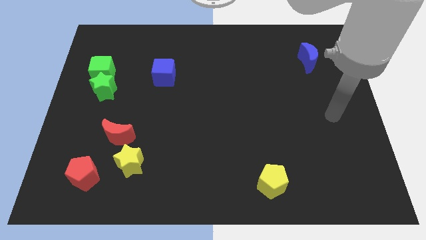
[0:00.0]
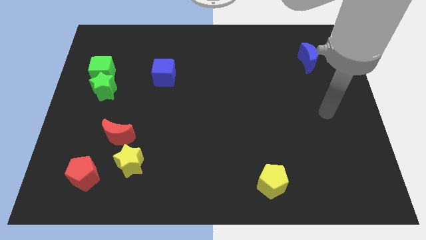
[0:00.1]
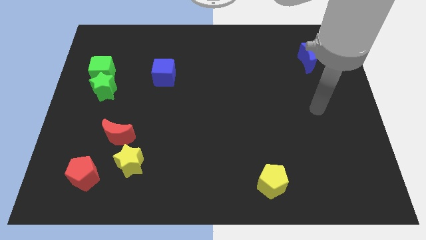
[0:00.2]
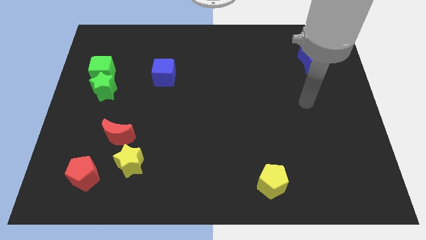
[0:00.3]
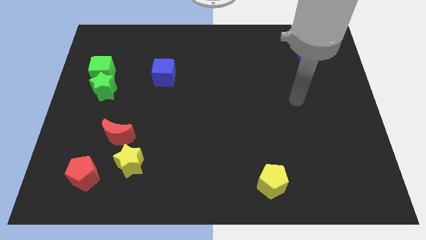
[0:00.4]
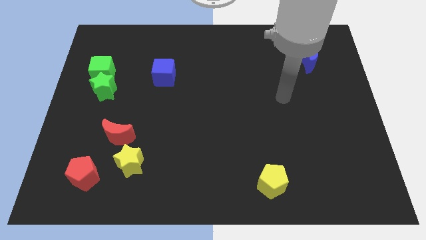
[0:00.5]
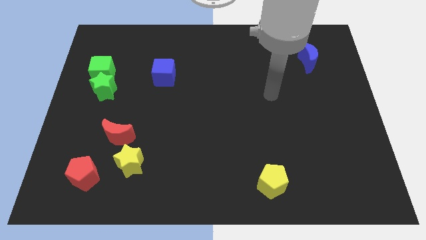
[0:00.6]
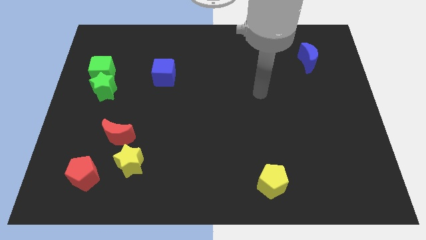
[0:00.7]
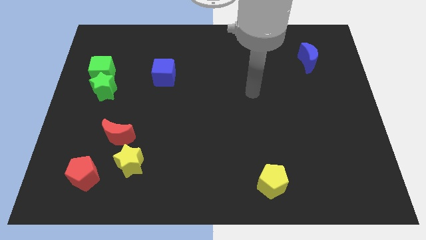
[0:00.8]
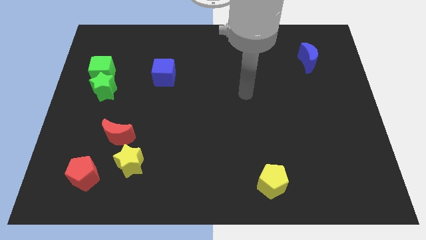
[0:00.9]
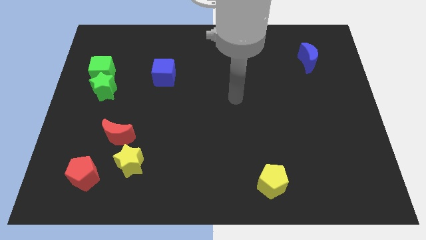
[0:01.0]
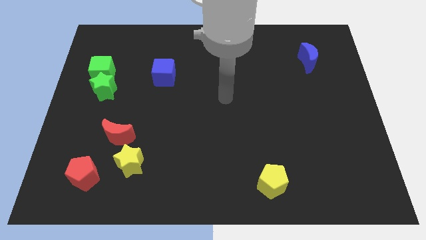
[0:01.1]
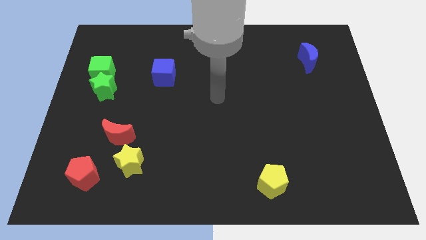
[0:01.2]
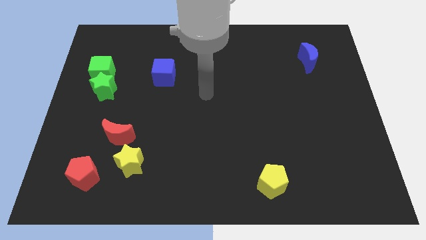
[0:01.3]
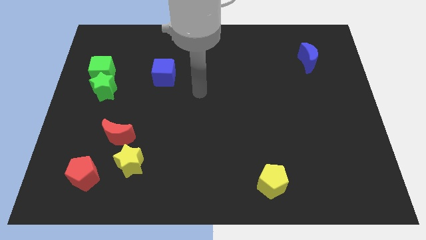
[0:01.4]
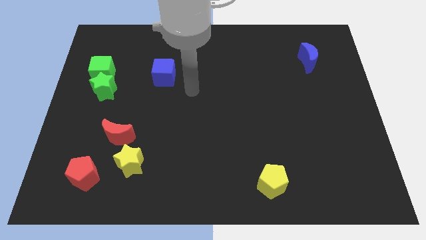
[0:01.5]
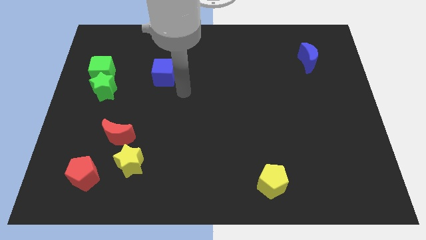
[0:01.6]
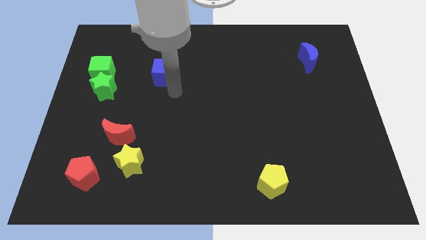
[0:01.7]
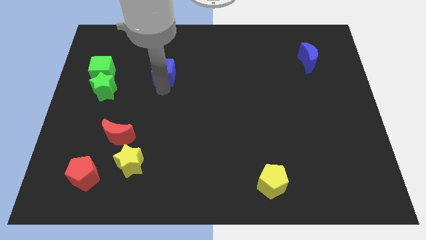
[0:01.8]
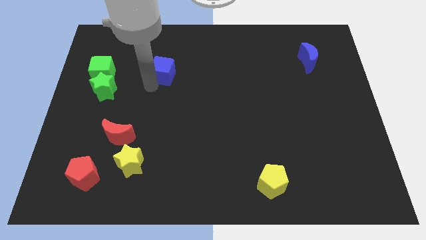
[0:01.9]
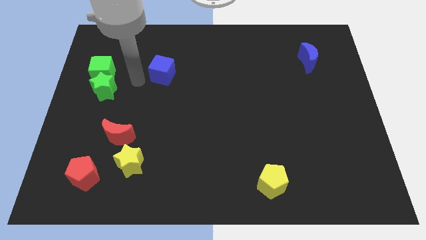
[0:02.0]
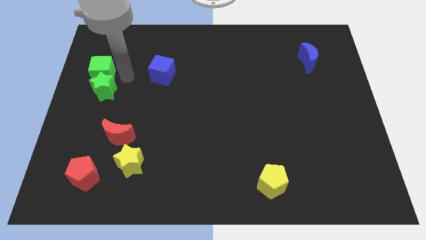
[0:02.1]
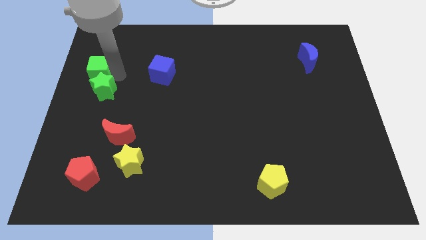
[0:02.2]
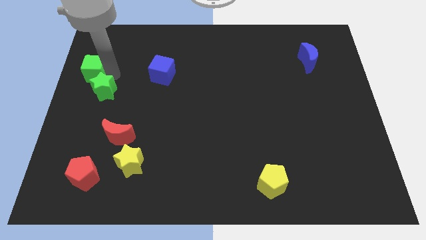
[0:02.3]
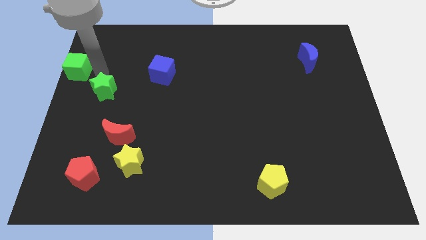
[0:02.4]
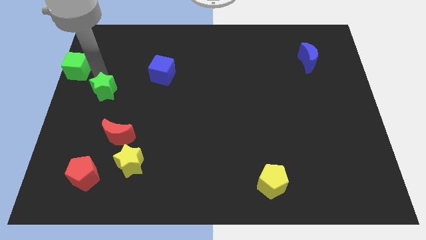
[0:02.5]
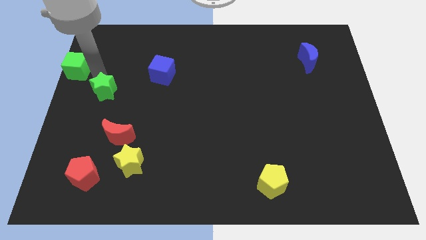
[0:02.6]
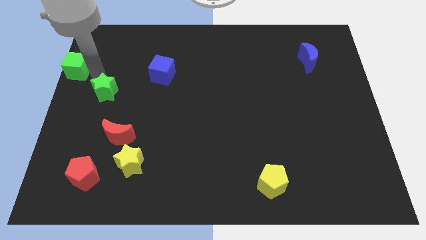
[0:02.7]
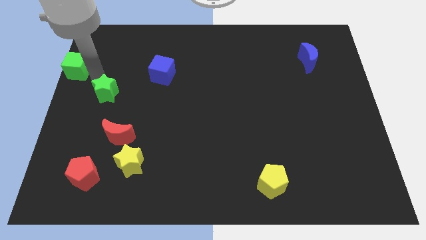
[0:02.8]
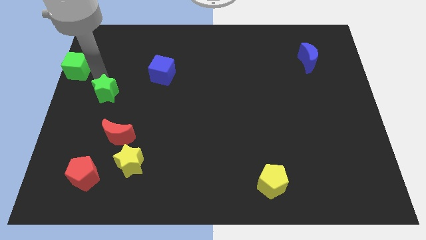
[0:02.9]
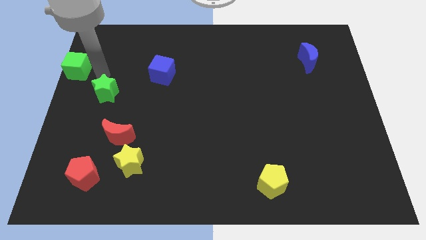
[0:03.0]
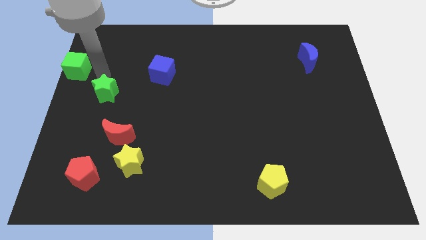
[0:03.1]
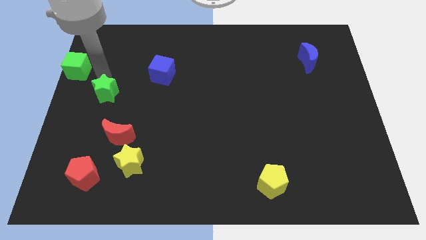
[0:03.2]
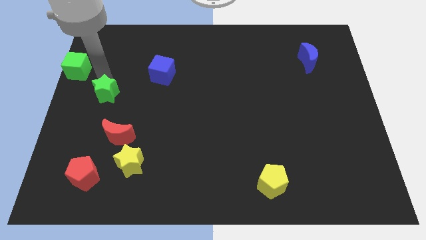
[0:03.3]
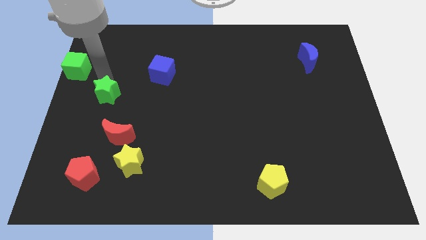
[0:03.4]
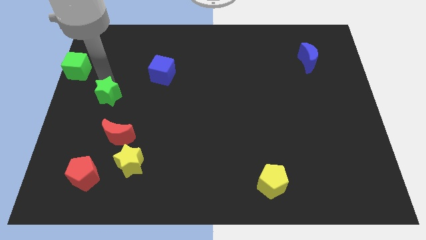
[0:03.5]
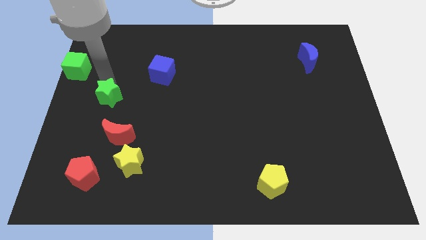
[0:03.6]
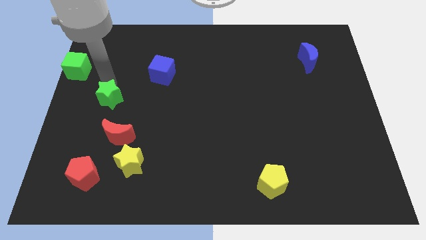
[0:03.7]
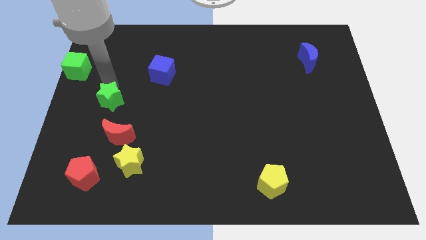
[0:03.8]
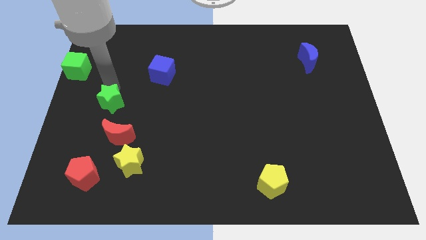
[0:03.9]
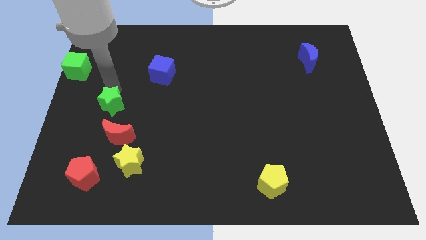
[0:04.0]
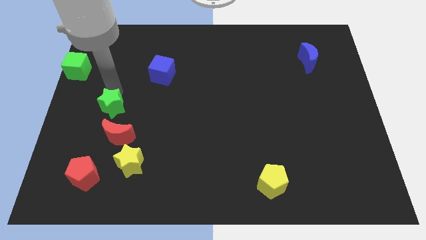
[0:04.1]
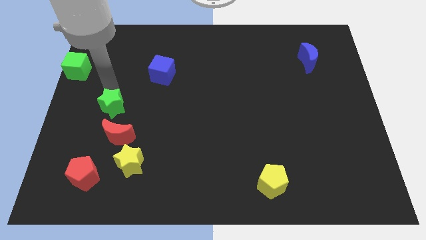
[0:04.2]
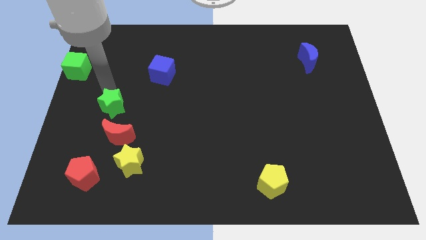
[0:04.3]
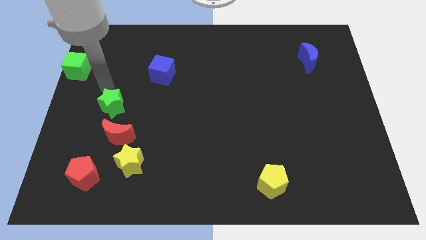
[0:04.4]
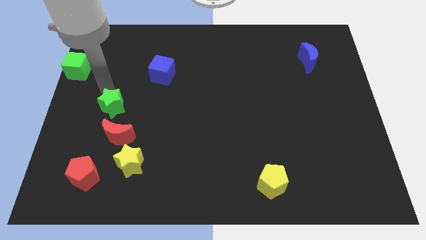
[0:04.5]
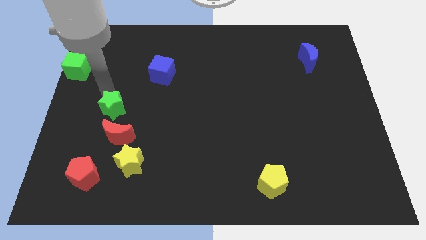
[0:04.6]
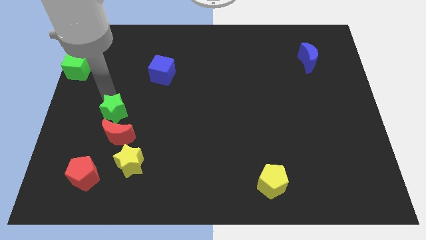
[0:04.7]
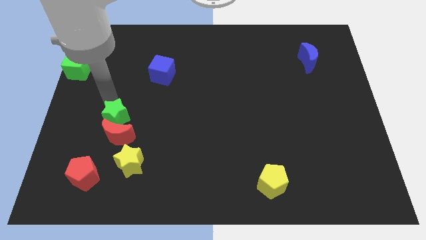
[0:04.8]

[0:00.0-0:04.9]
move the green star next to the red moon

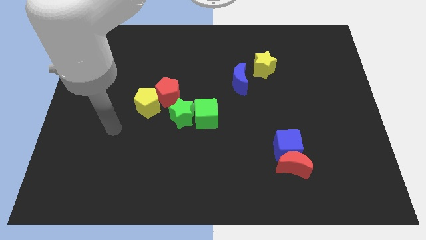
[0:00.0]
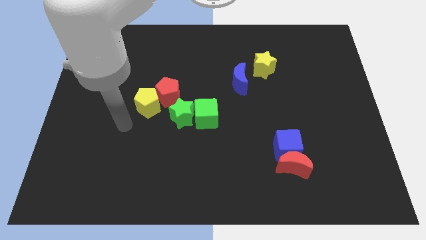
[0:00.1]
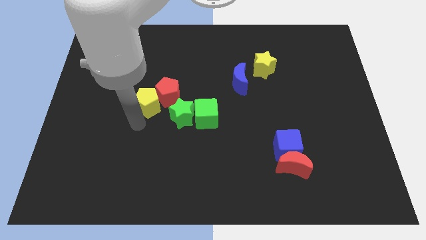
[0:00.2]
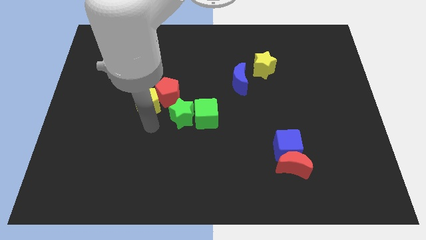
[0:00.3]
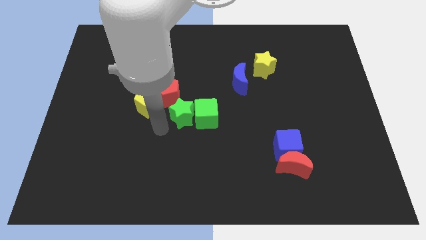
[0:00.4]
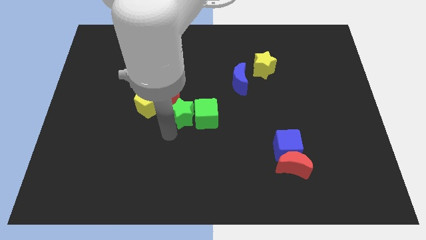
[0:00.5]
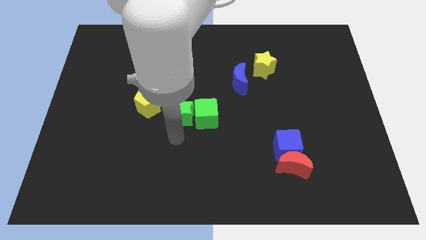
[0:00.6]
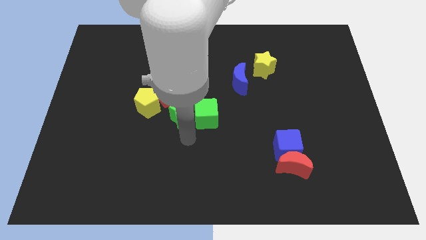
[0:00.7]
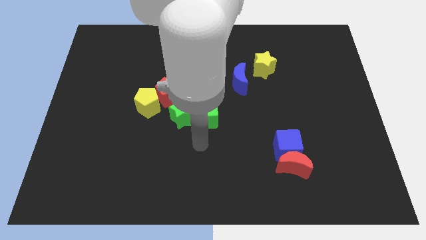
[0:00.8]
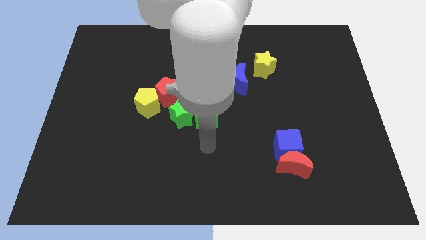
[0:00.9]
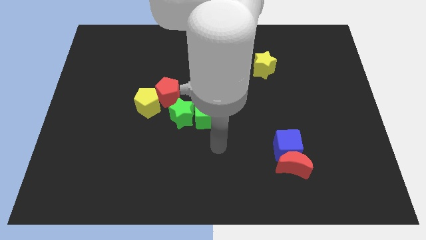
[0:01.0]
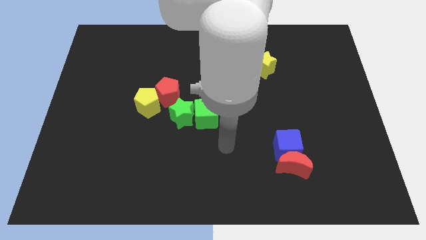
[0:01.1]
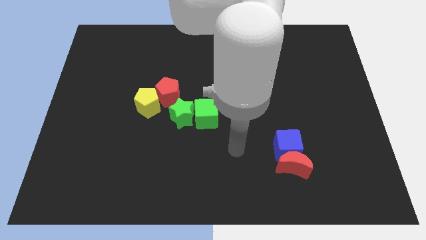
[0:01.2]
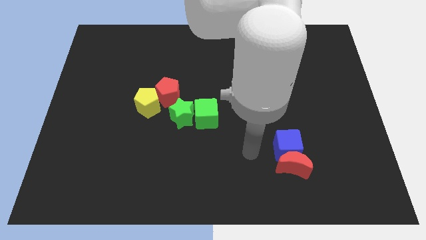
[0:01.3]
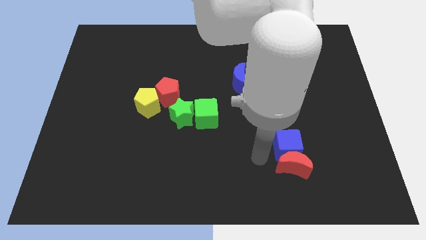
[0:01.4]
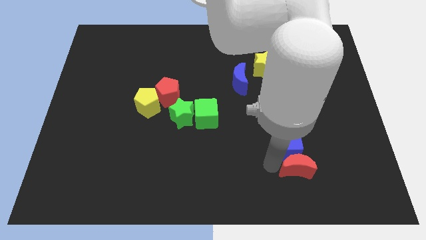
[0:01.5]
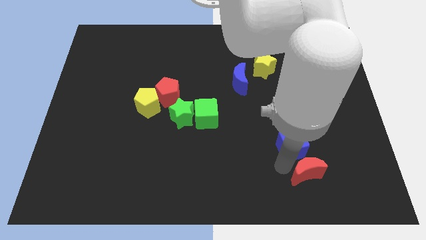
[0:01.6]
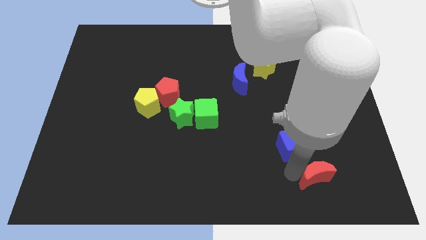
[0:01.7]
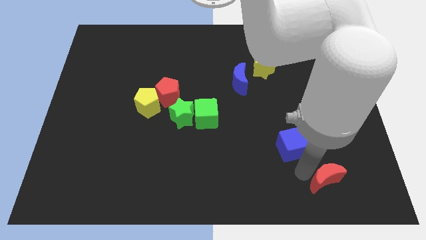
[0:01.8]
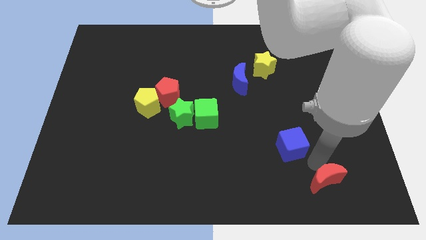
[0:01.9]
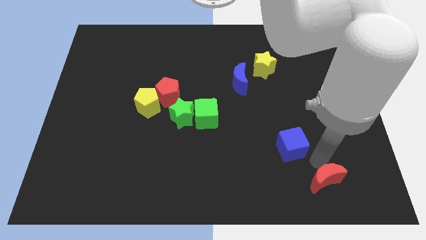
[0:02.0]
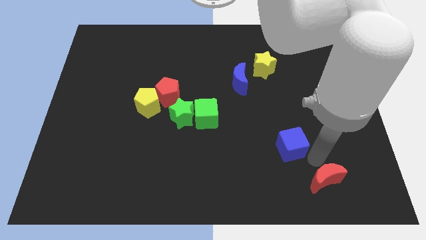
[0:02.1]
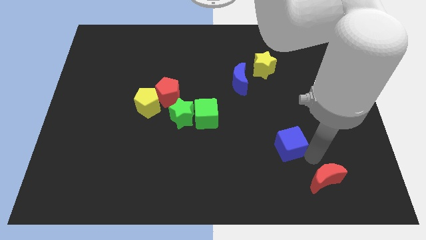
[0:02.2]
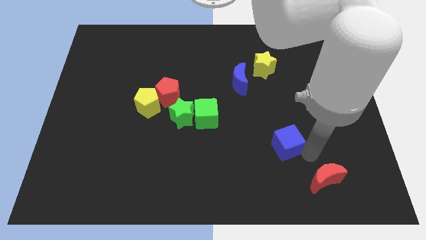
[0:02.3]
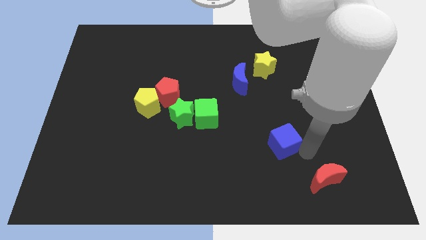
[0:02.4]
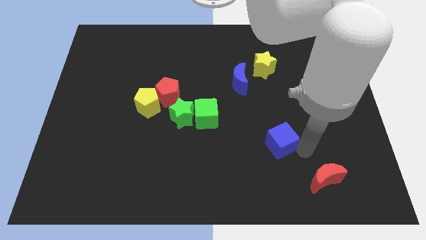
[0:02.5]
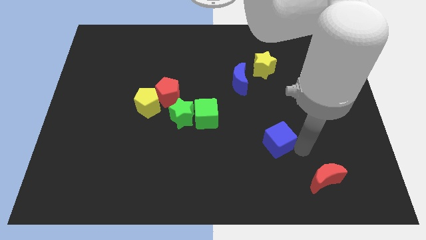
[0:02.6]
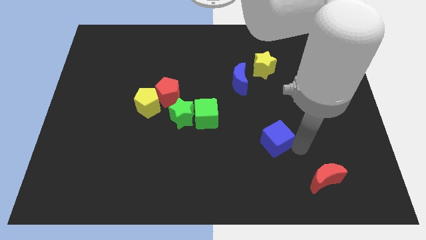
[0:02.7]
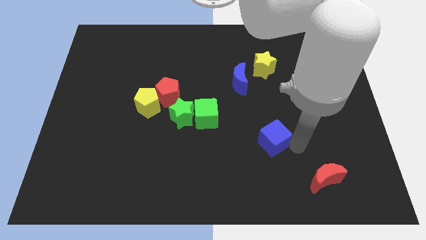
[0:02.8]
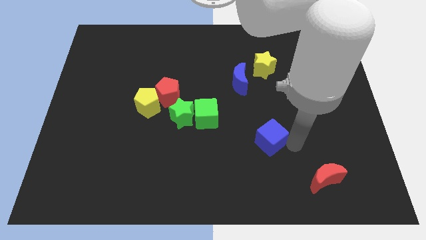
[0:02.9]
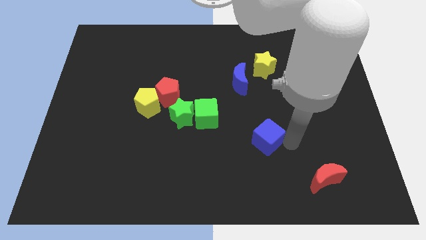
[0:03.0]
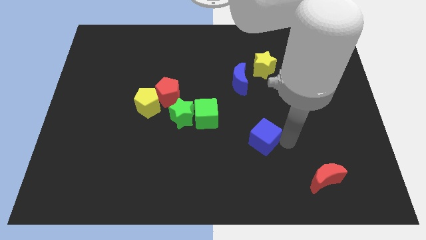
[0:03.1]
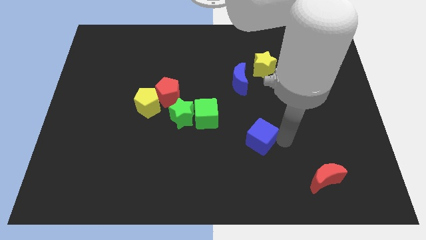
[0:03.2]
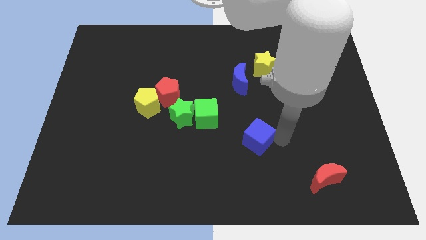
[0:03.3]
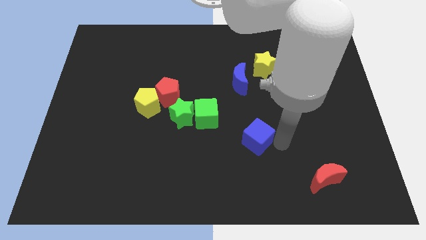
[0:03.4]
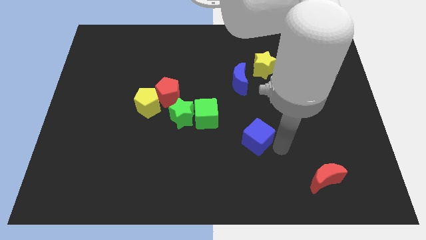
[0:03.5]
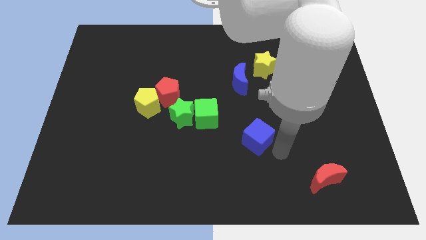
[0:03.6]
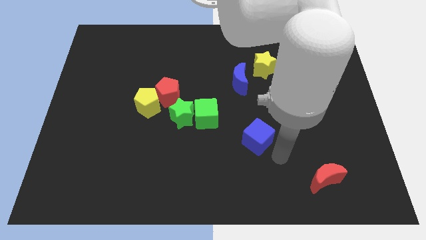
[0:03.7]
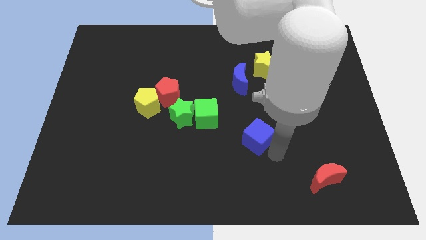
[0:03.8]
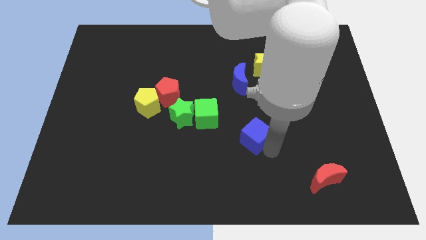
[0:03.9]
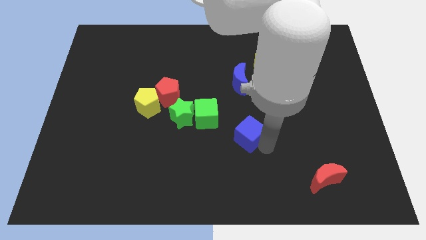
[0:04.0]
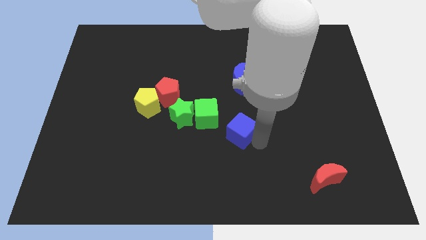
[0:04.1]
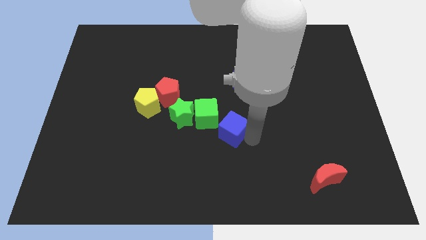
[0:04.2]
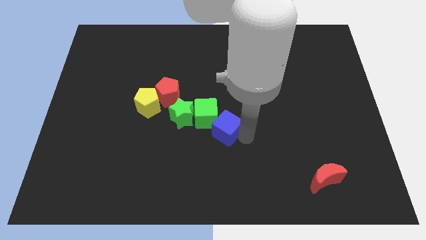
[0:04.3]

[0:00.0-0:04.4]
move the blue cube to the green cube
